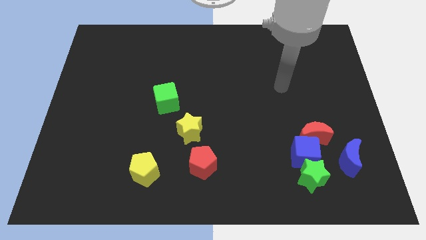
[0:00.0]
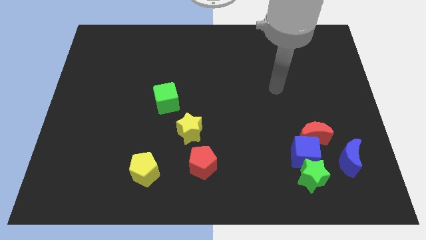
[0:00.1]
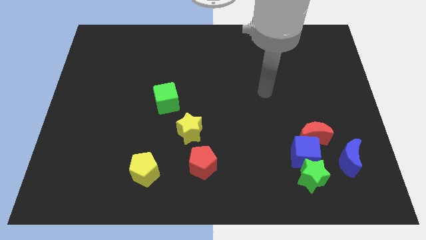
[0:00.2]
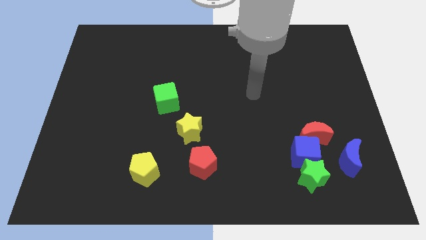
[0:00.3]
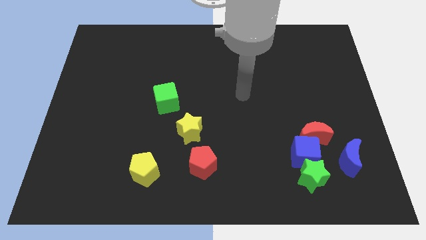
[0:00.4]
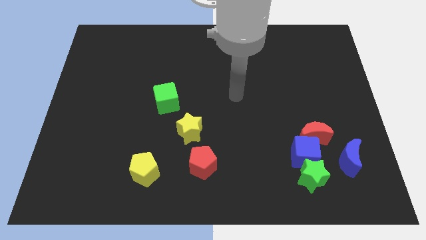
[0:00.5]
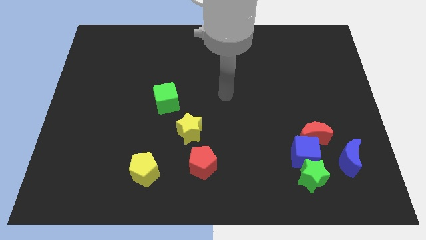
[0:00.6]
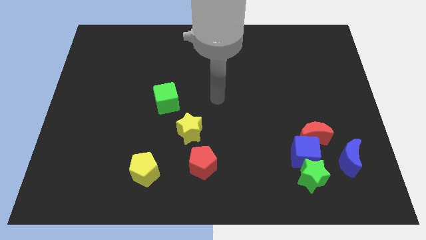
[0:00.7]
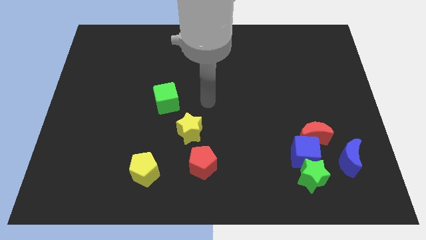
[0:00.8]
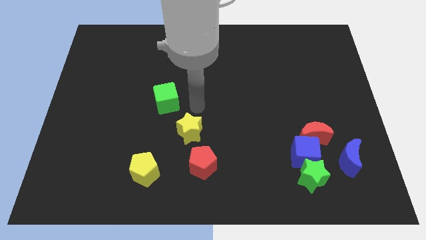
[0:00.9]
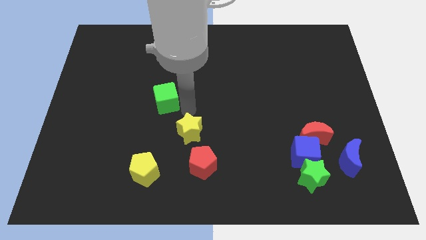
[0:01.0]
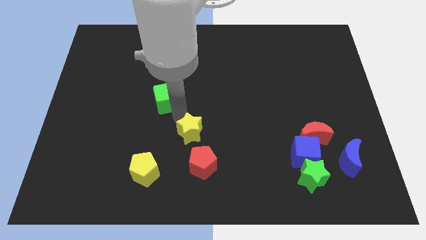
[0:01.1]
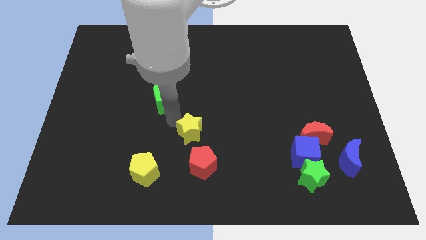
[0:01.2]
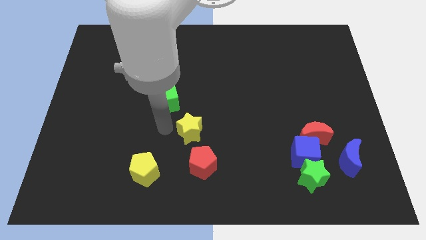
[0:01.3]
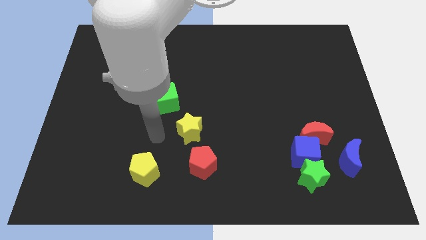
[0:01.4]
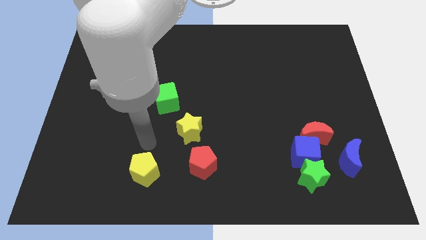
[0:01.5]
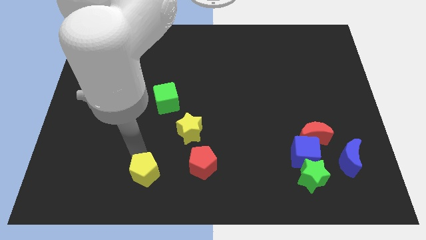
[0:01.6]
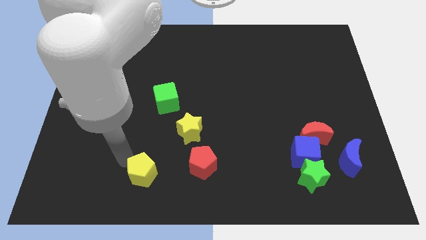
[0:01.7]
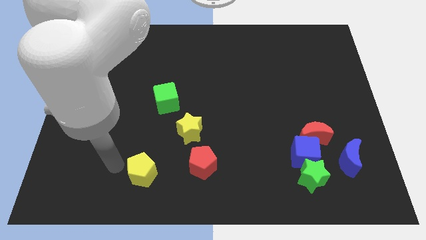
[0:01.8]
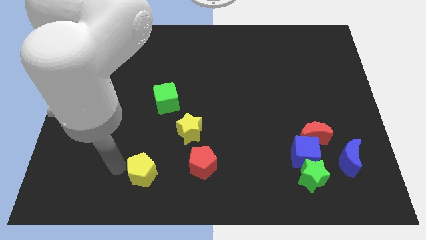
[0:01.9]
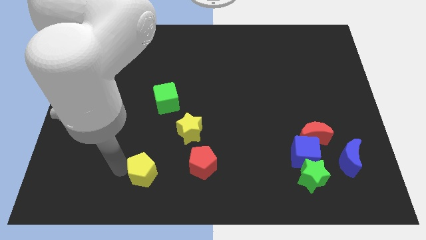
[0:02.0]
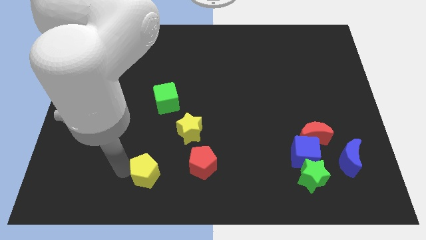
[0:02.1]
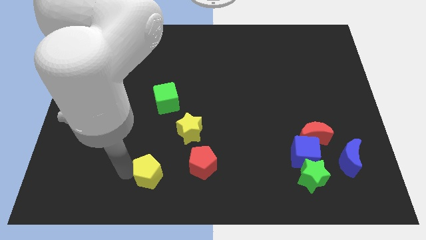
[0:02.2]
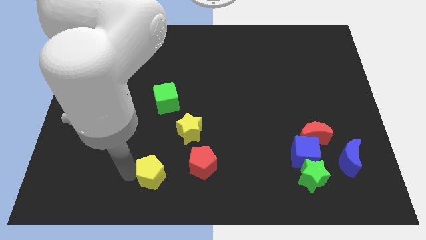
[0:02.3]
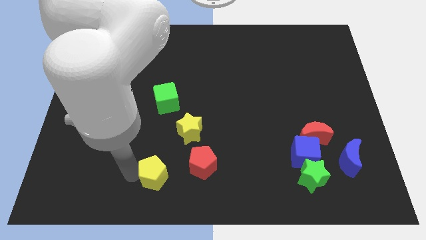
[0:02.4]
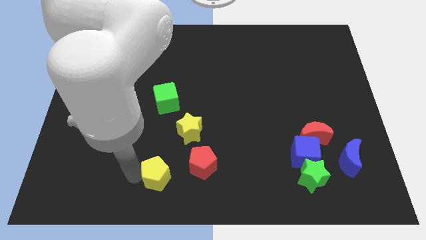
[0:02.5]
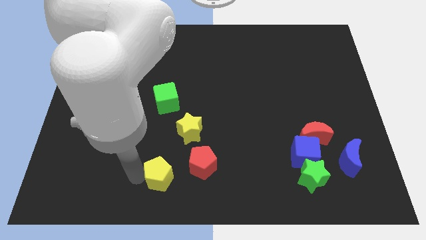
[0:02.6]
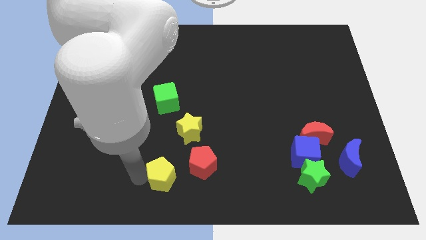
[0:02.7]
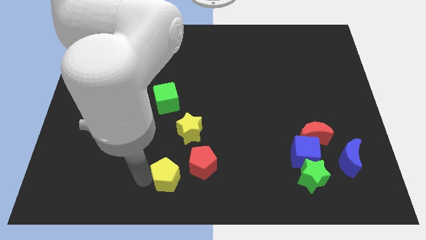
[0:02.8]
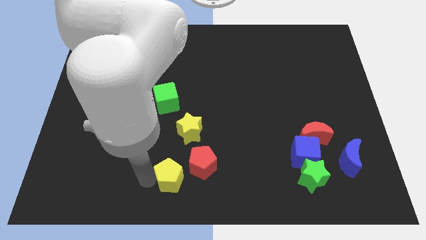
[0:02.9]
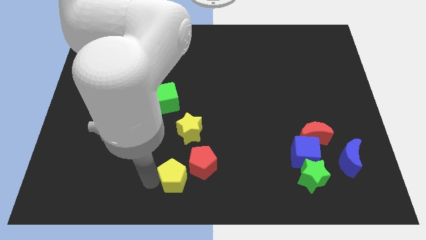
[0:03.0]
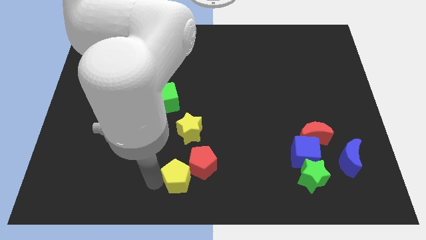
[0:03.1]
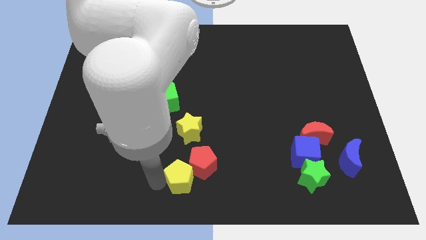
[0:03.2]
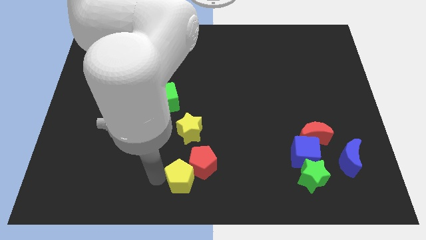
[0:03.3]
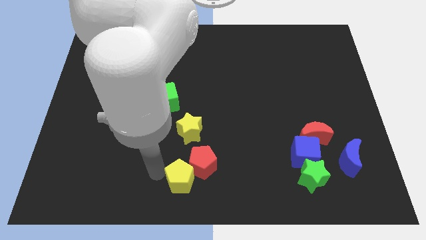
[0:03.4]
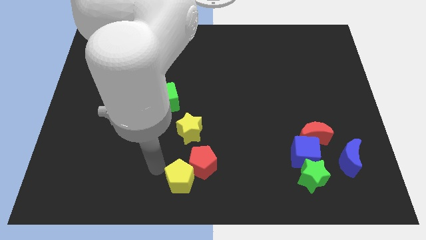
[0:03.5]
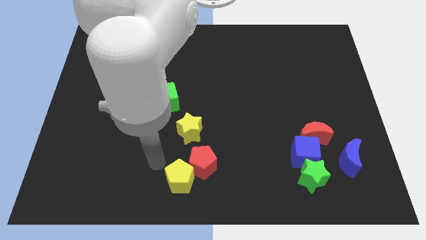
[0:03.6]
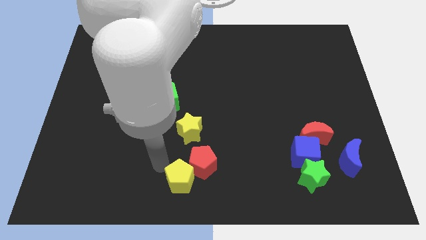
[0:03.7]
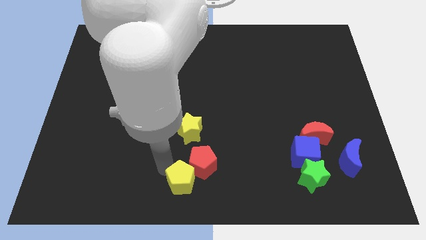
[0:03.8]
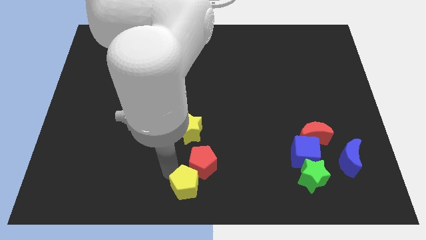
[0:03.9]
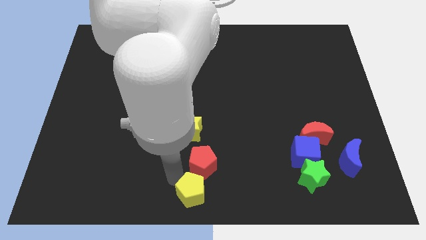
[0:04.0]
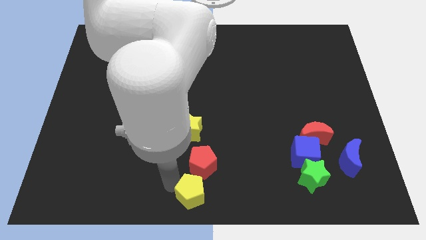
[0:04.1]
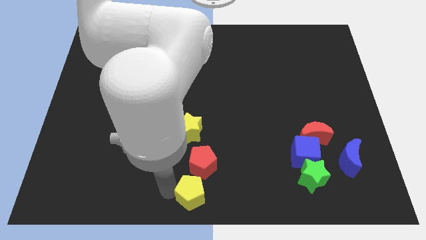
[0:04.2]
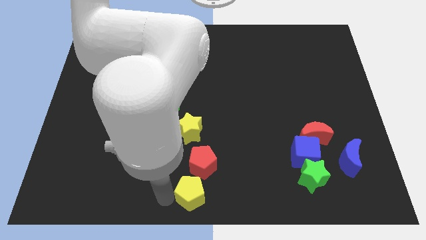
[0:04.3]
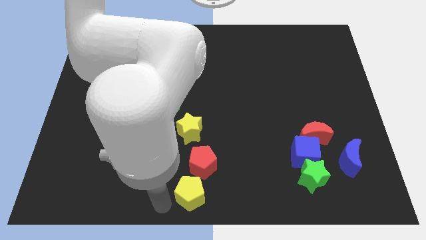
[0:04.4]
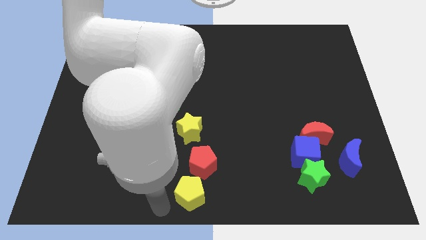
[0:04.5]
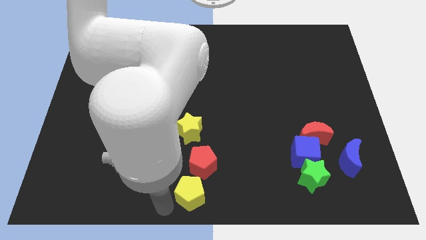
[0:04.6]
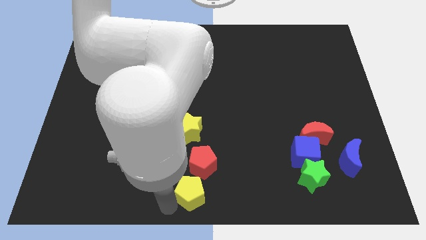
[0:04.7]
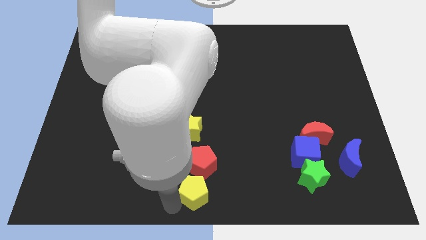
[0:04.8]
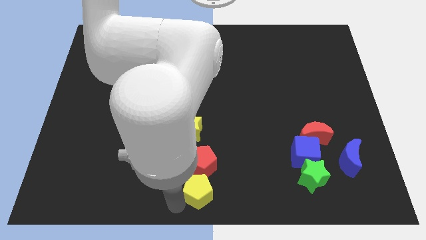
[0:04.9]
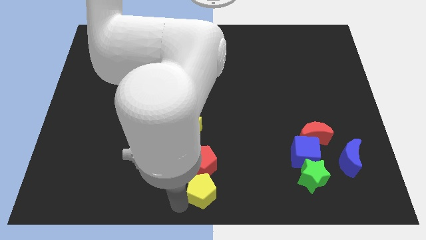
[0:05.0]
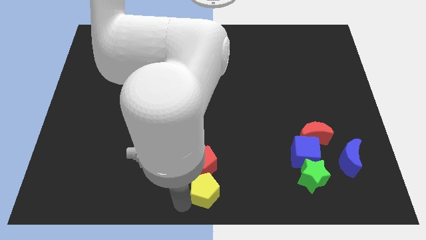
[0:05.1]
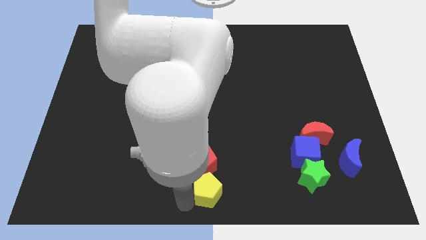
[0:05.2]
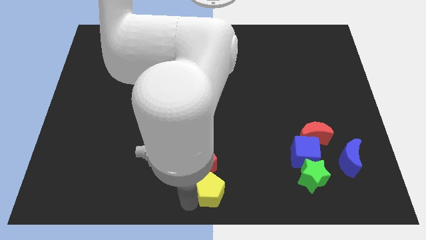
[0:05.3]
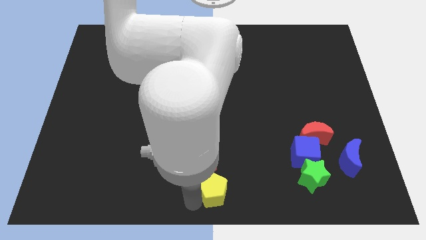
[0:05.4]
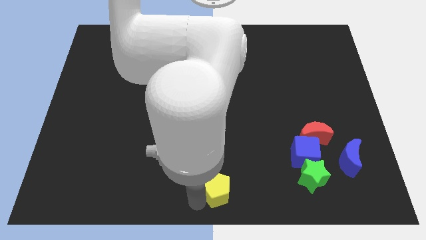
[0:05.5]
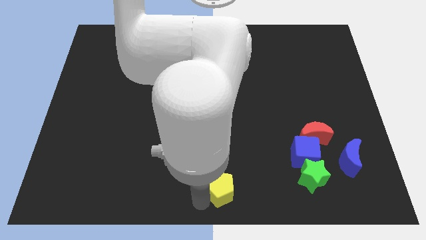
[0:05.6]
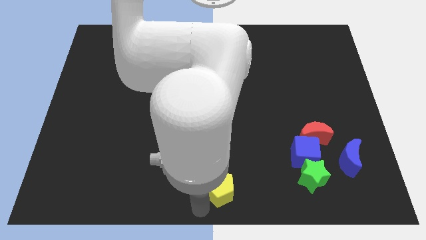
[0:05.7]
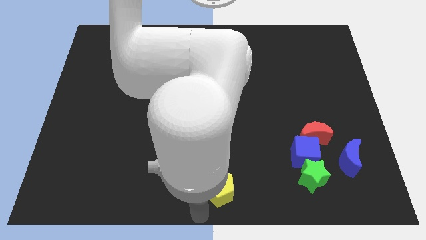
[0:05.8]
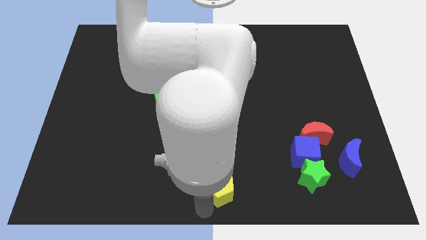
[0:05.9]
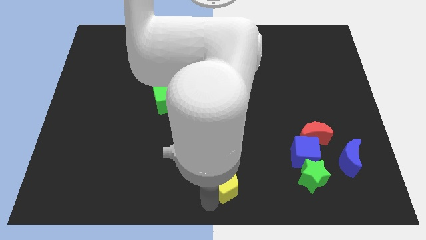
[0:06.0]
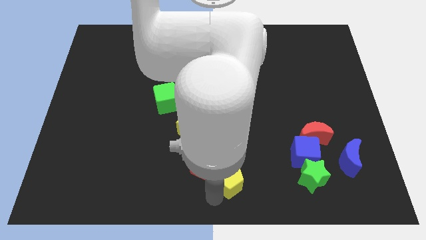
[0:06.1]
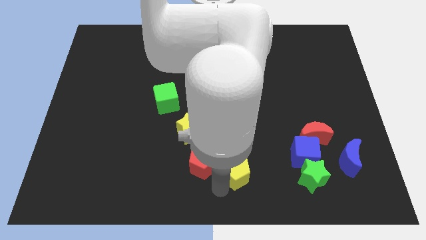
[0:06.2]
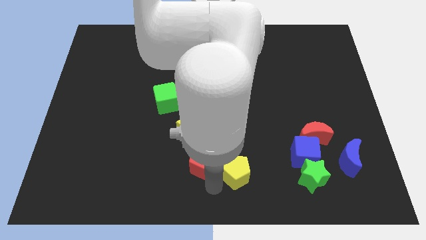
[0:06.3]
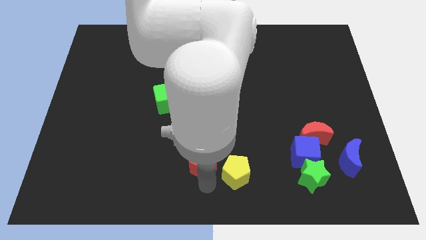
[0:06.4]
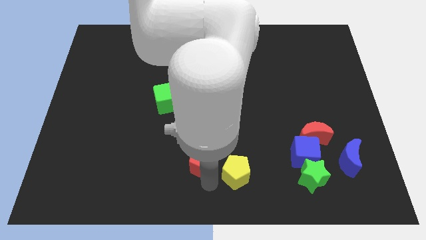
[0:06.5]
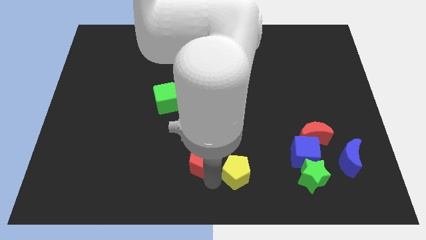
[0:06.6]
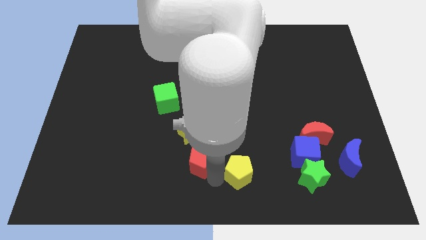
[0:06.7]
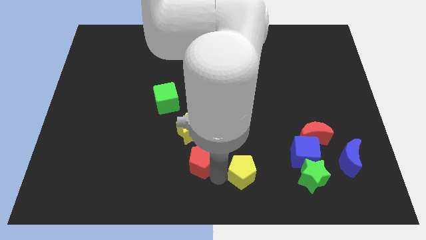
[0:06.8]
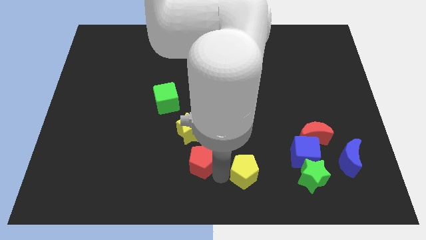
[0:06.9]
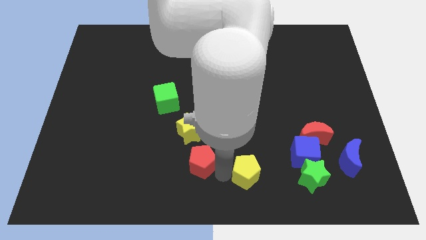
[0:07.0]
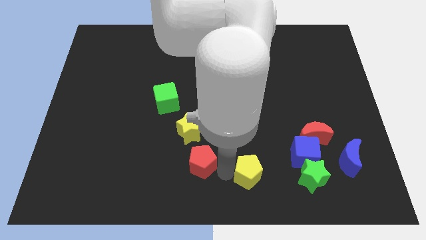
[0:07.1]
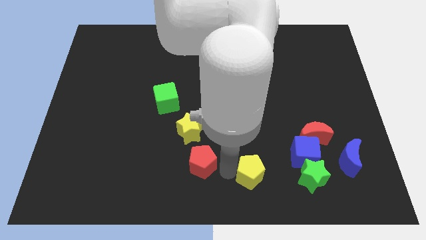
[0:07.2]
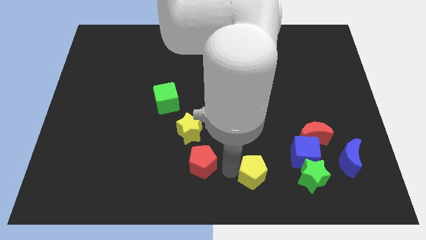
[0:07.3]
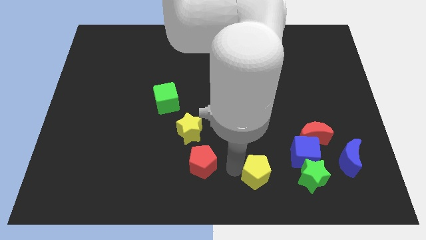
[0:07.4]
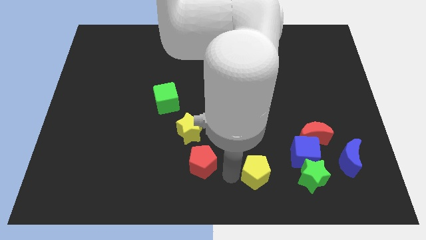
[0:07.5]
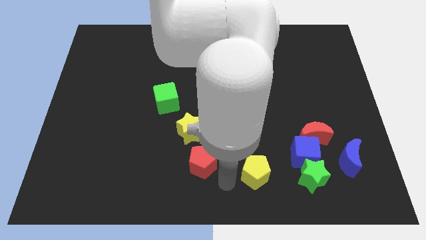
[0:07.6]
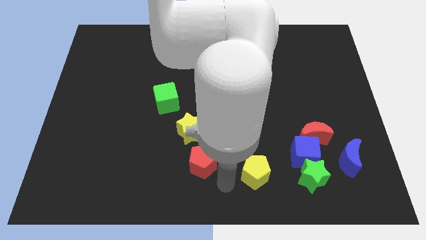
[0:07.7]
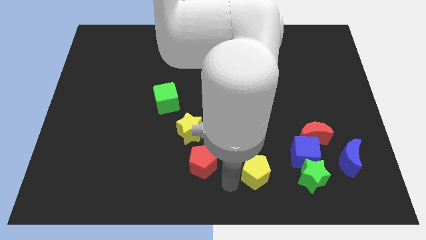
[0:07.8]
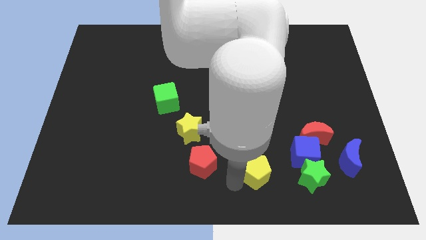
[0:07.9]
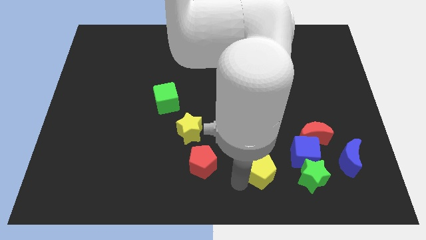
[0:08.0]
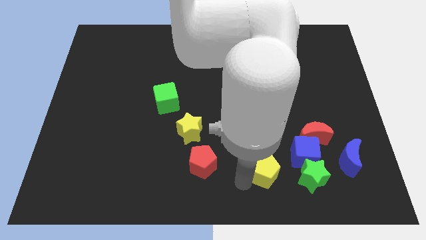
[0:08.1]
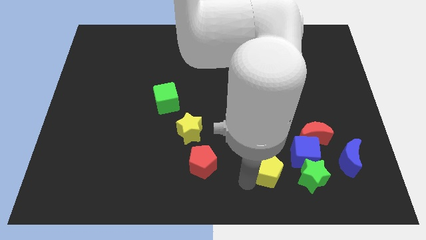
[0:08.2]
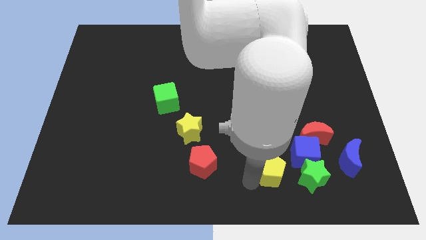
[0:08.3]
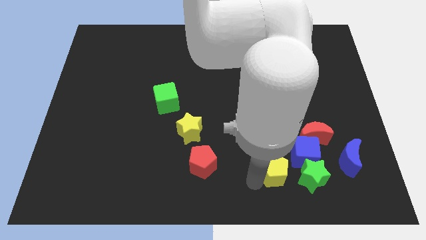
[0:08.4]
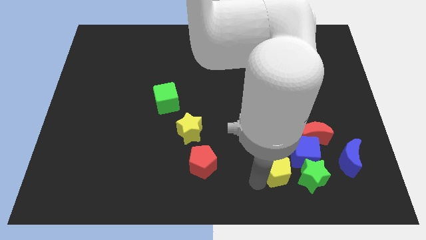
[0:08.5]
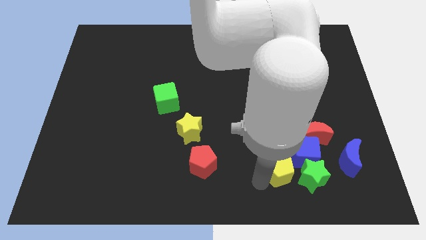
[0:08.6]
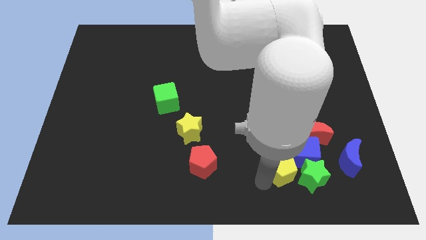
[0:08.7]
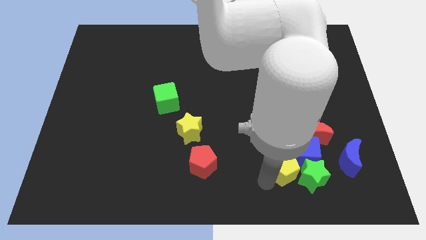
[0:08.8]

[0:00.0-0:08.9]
move the yellow pentagon towards the blue cube
